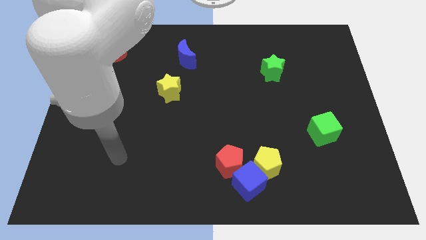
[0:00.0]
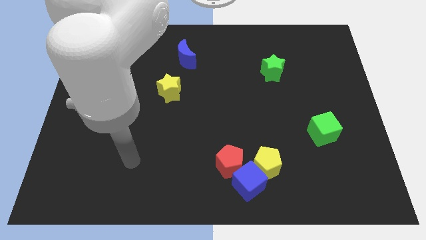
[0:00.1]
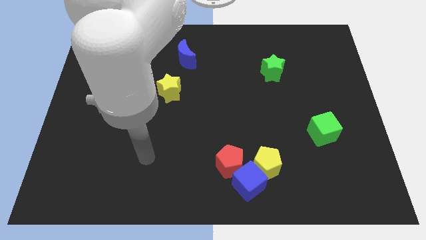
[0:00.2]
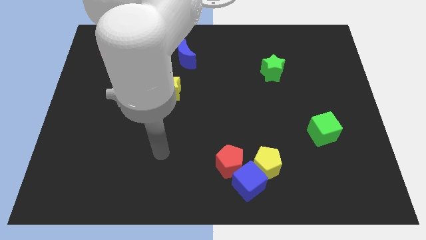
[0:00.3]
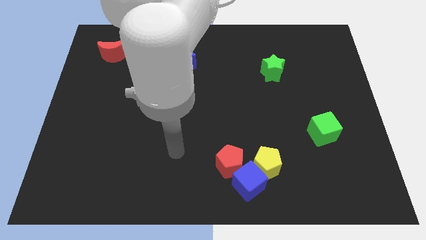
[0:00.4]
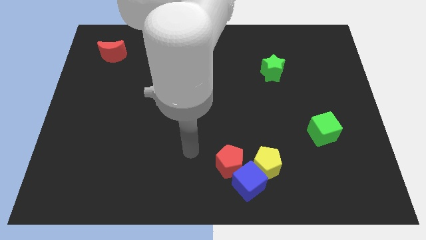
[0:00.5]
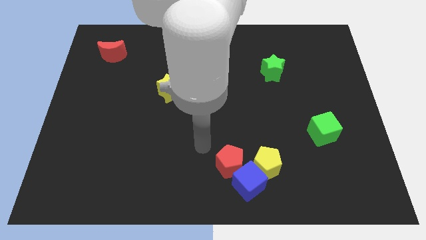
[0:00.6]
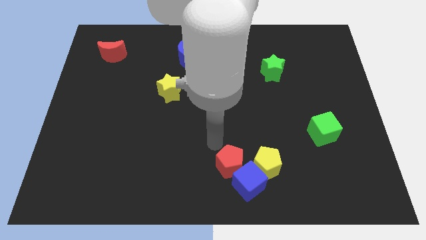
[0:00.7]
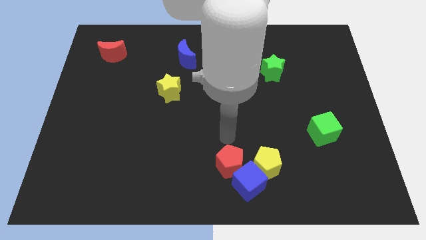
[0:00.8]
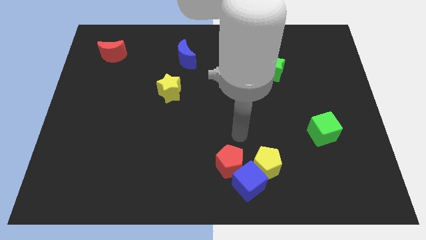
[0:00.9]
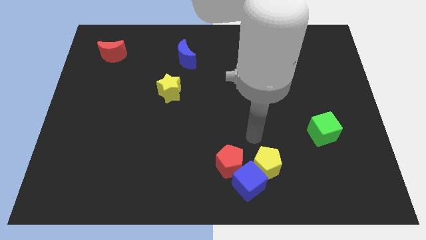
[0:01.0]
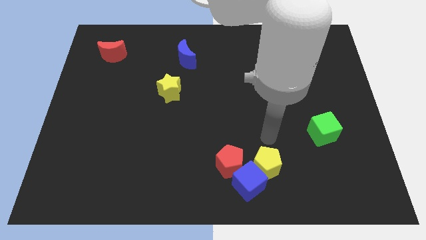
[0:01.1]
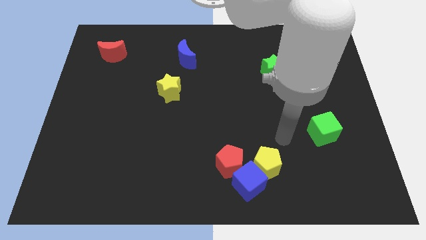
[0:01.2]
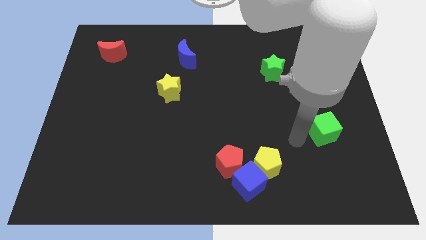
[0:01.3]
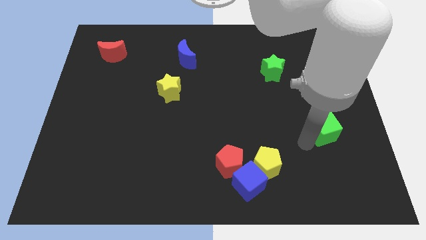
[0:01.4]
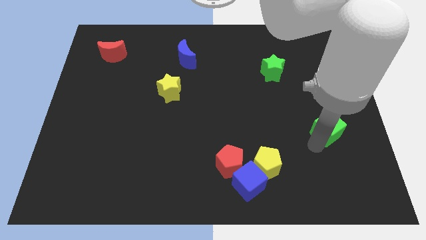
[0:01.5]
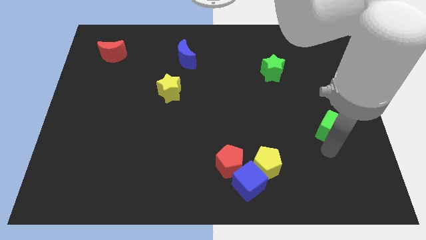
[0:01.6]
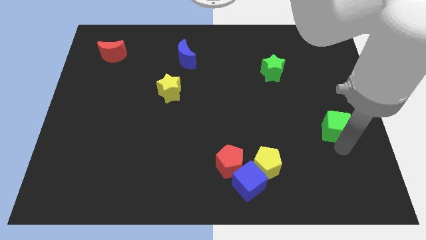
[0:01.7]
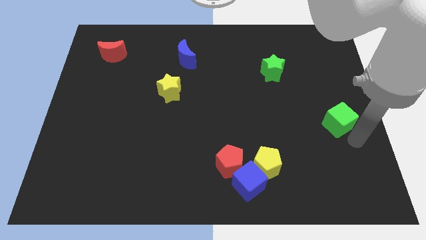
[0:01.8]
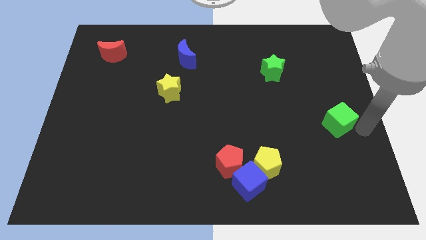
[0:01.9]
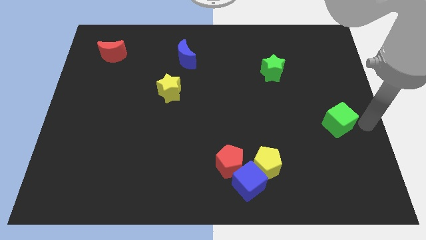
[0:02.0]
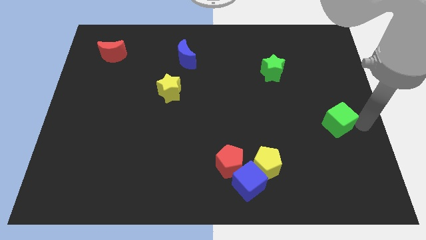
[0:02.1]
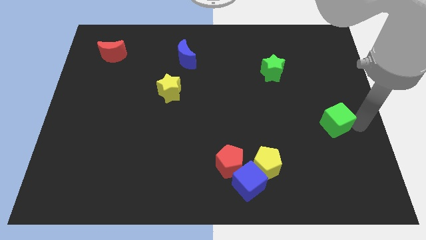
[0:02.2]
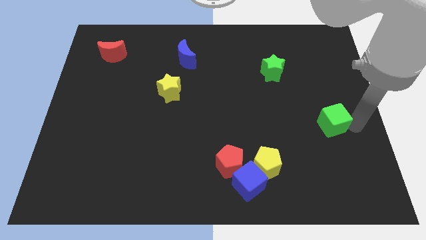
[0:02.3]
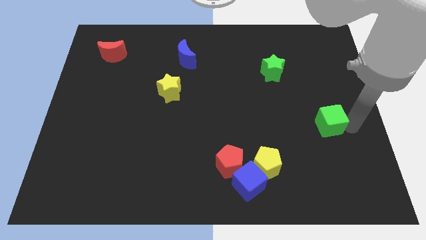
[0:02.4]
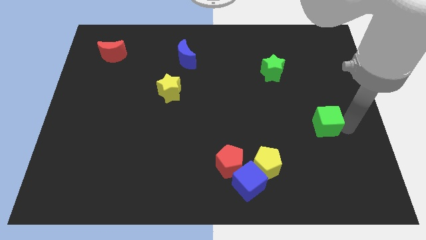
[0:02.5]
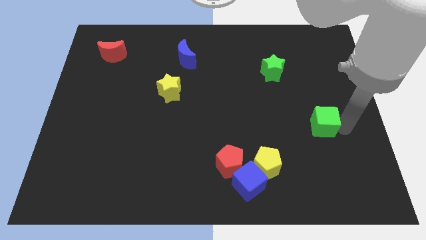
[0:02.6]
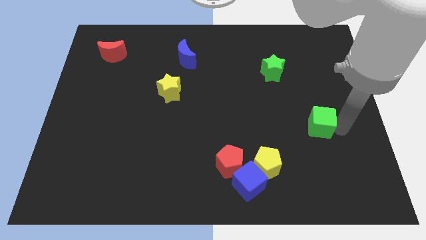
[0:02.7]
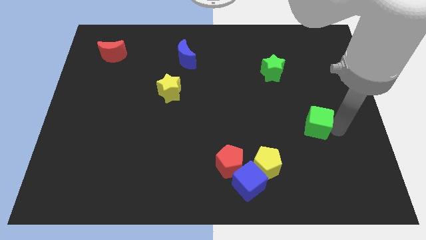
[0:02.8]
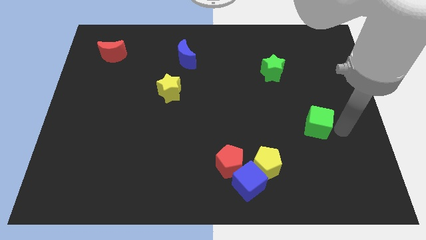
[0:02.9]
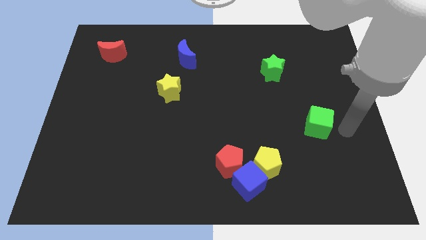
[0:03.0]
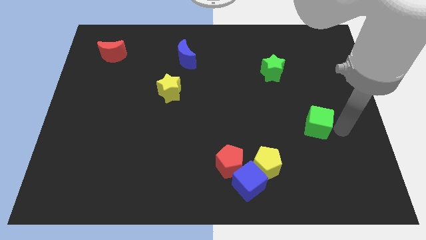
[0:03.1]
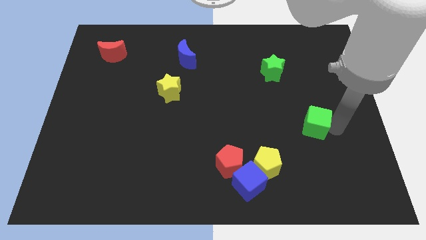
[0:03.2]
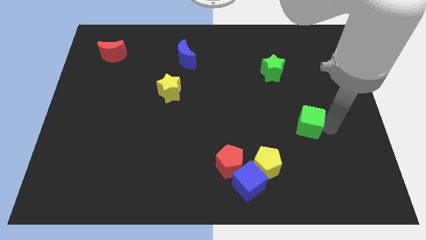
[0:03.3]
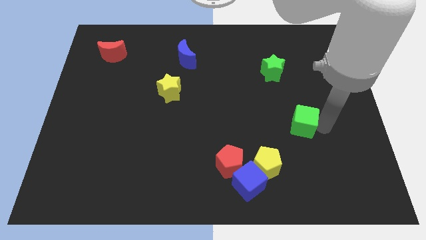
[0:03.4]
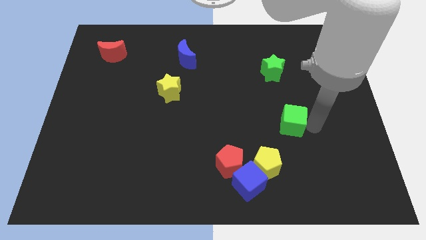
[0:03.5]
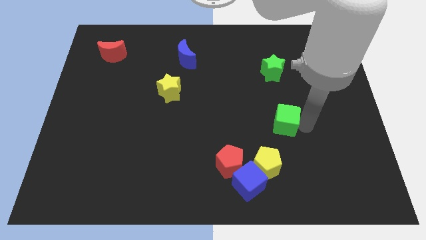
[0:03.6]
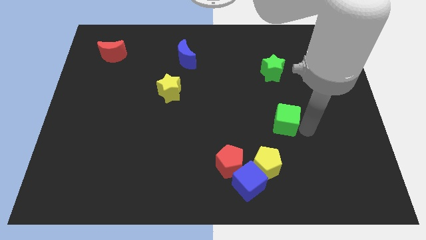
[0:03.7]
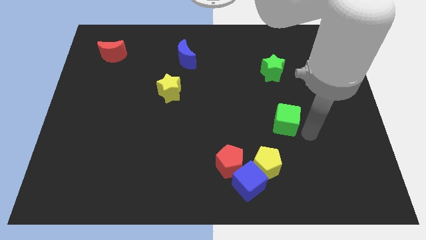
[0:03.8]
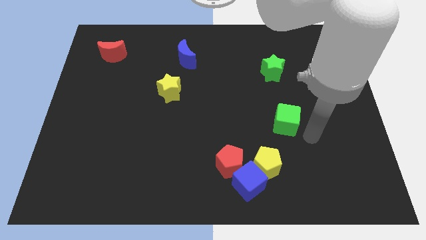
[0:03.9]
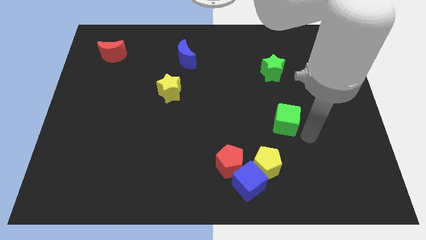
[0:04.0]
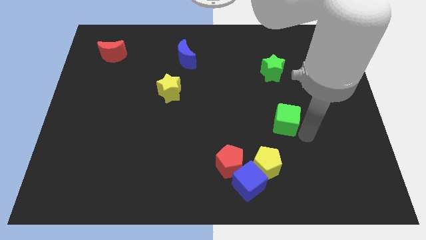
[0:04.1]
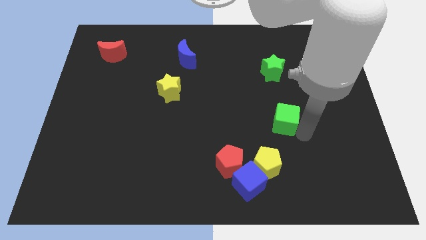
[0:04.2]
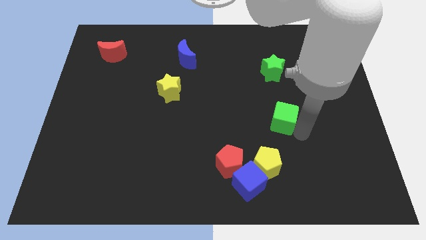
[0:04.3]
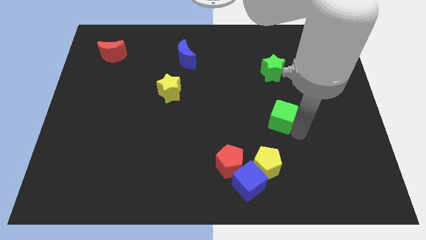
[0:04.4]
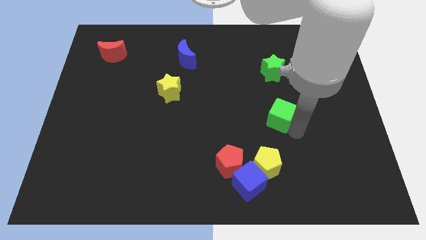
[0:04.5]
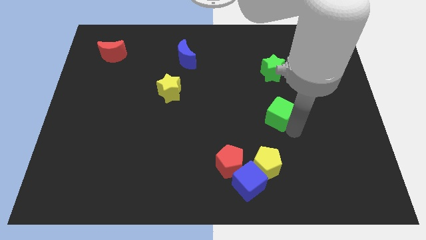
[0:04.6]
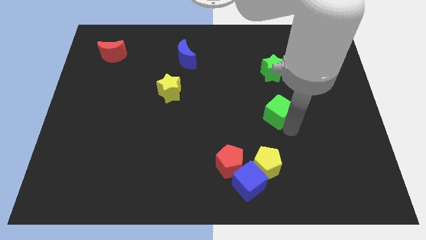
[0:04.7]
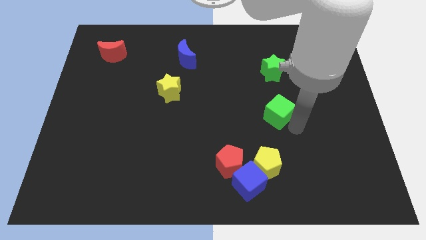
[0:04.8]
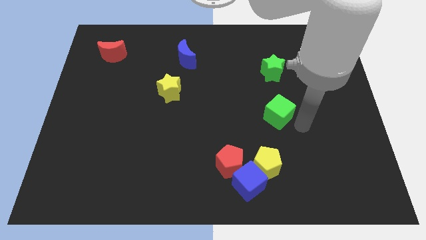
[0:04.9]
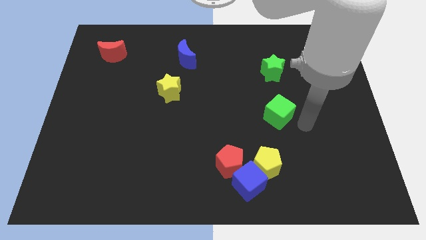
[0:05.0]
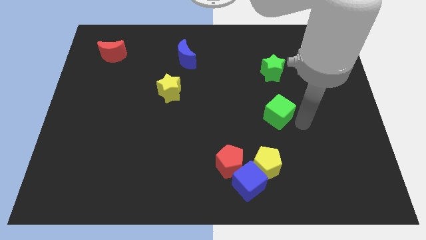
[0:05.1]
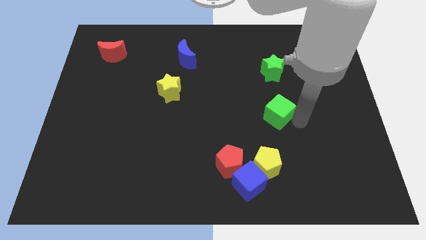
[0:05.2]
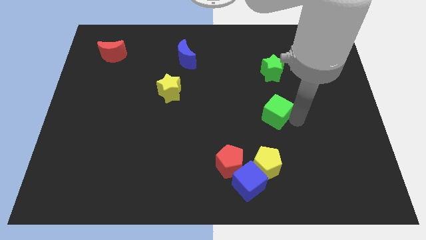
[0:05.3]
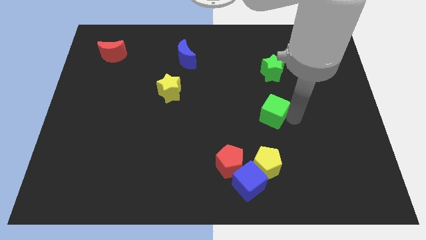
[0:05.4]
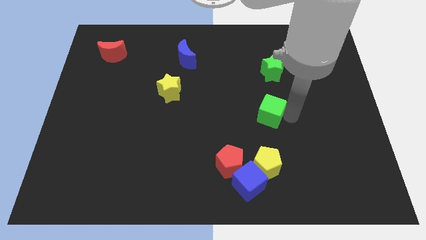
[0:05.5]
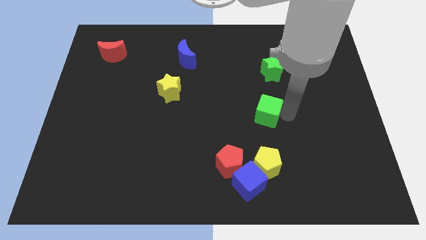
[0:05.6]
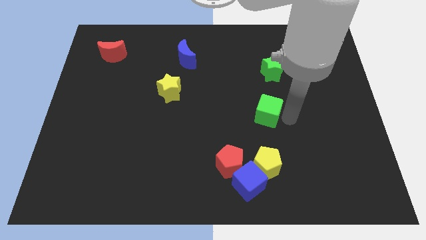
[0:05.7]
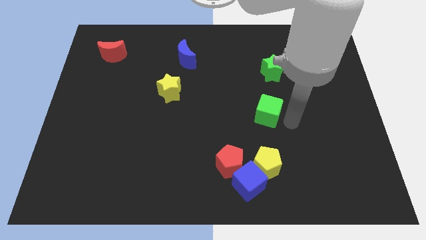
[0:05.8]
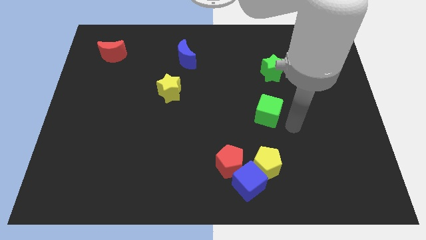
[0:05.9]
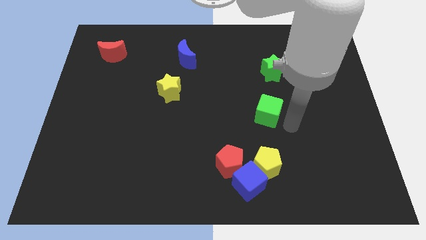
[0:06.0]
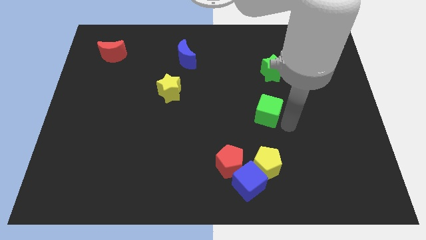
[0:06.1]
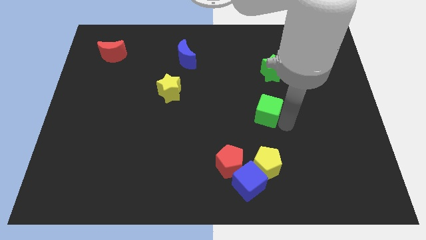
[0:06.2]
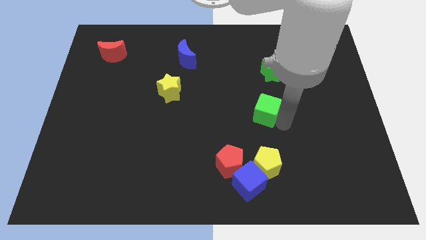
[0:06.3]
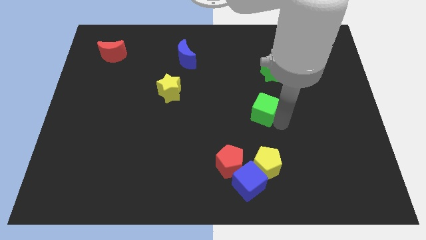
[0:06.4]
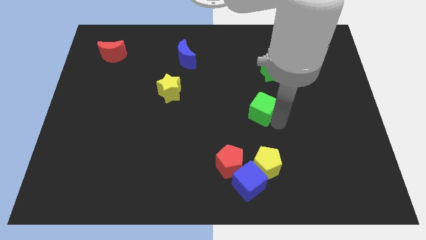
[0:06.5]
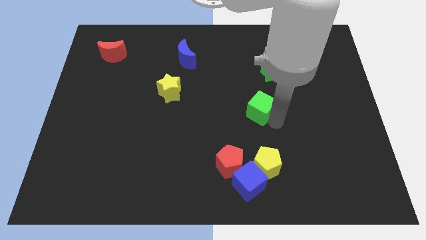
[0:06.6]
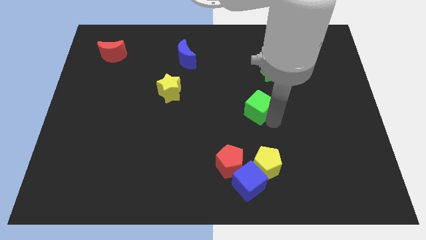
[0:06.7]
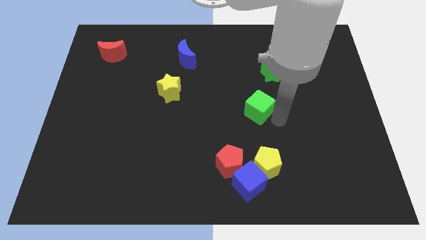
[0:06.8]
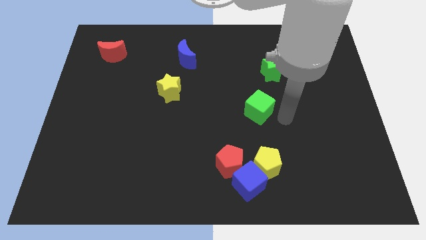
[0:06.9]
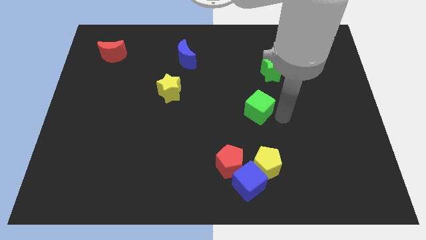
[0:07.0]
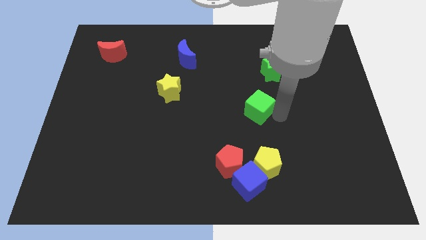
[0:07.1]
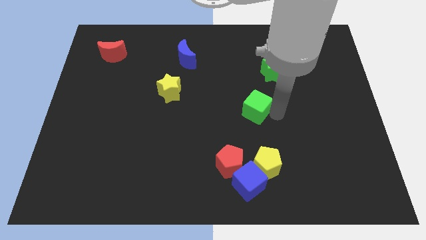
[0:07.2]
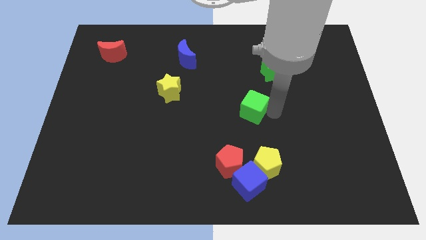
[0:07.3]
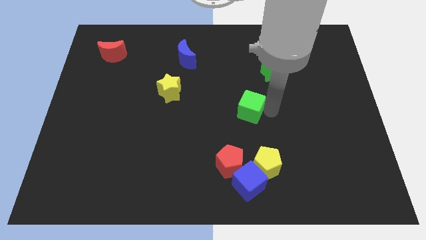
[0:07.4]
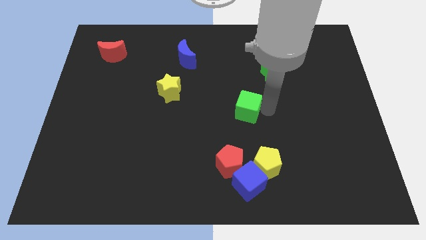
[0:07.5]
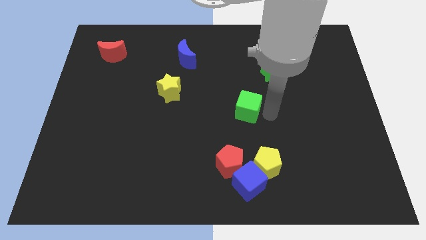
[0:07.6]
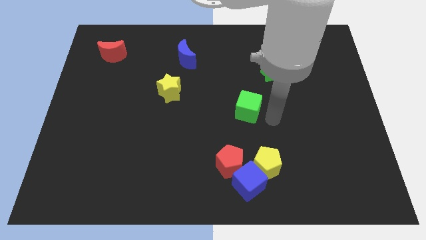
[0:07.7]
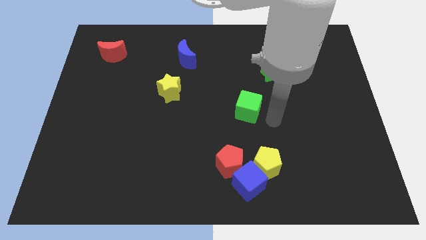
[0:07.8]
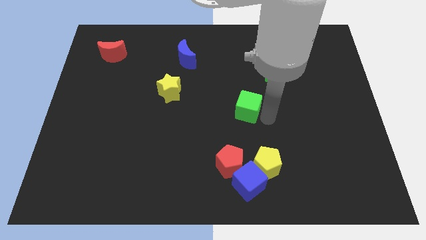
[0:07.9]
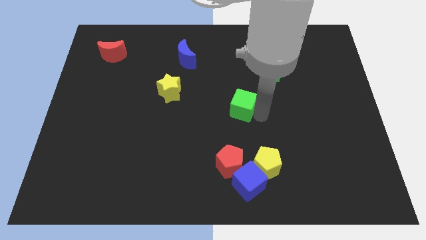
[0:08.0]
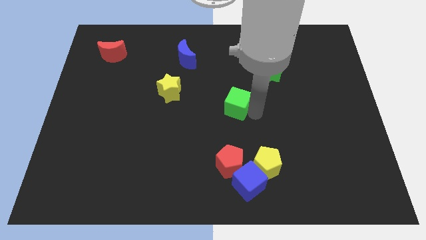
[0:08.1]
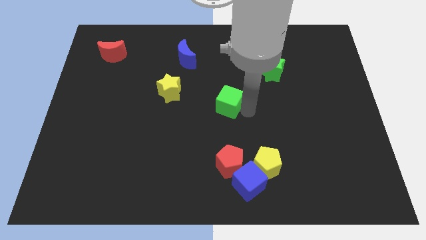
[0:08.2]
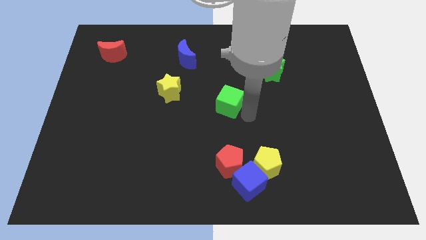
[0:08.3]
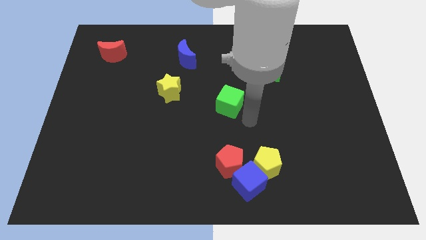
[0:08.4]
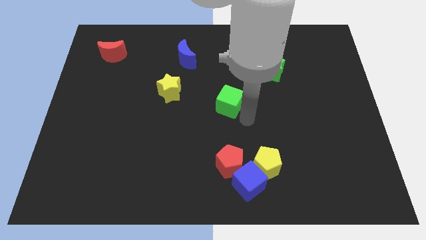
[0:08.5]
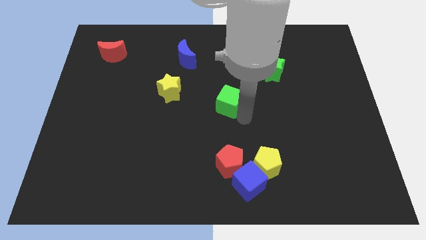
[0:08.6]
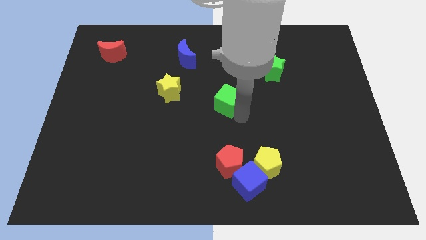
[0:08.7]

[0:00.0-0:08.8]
put the green cube just right of the yellow star
